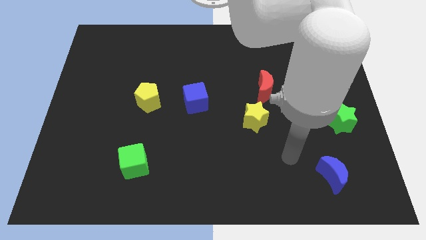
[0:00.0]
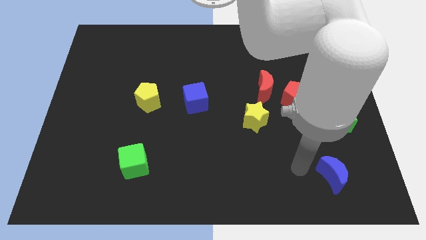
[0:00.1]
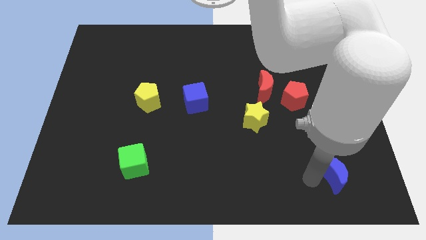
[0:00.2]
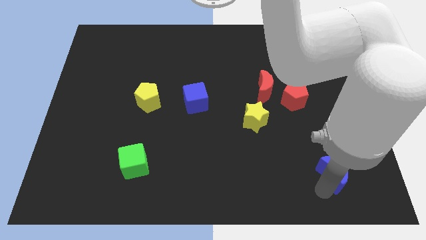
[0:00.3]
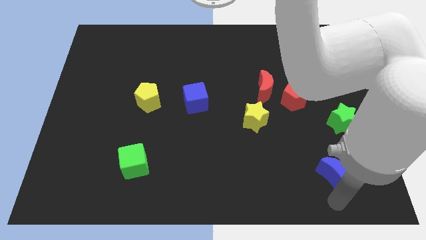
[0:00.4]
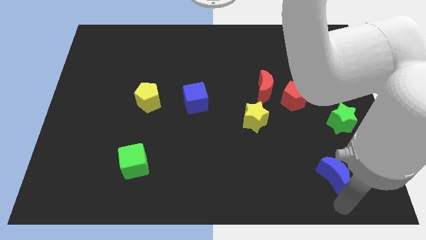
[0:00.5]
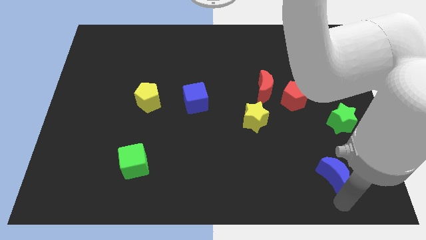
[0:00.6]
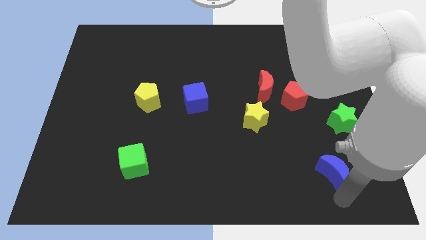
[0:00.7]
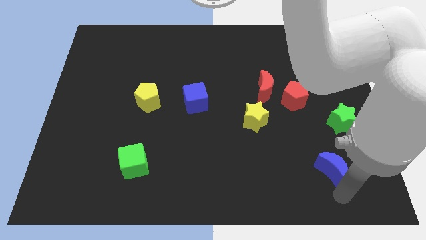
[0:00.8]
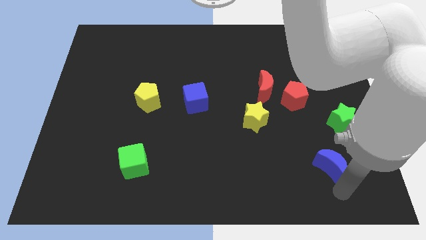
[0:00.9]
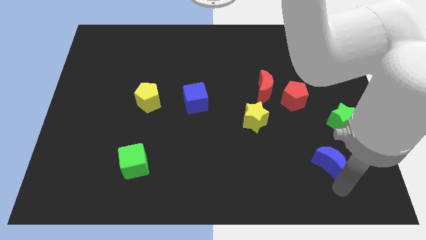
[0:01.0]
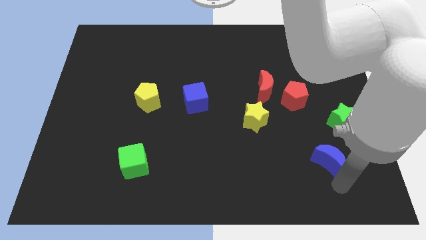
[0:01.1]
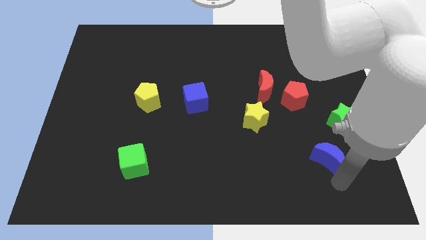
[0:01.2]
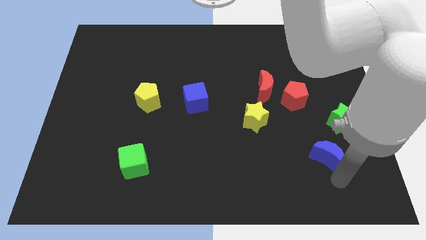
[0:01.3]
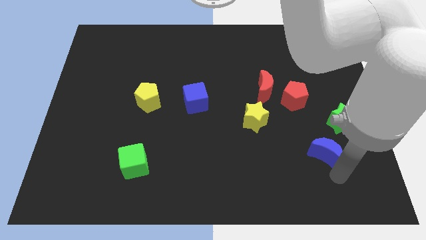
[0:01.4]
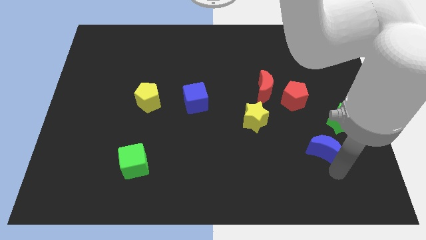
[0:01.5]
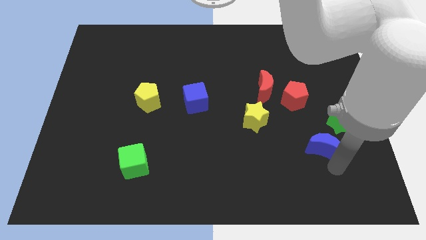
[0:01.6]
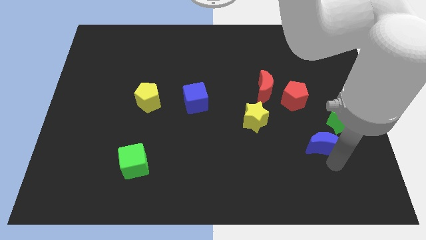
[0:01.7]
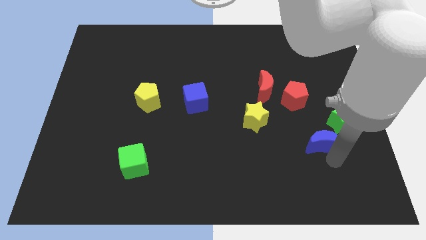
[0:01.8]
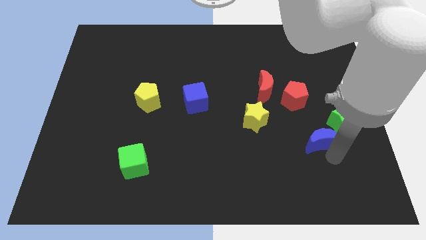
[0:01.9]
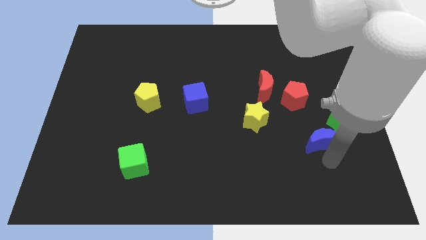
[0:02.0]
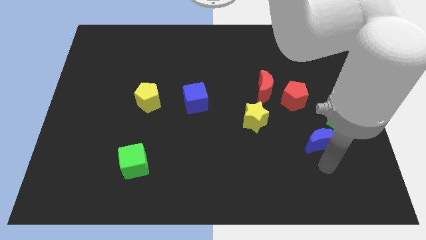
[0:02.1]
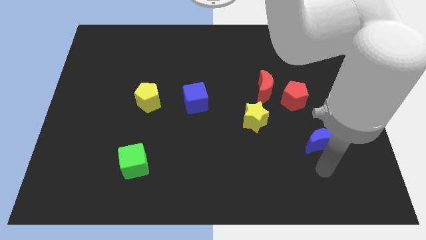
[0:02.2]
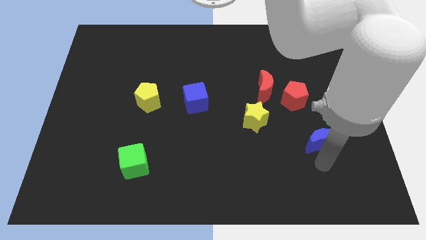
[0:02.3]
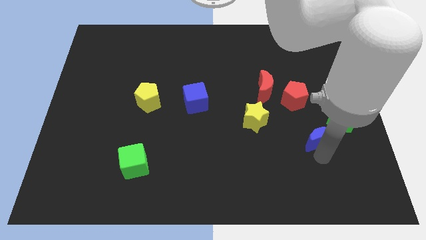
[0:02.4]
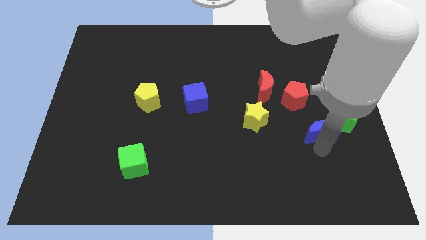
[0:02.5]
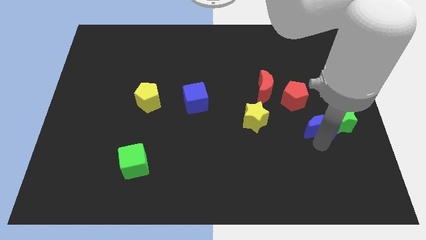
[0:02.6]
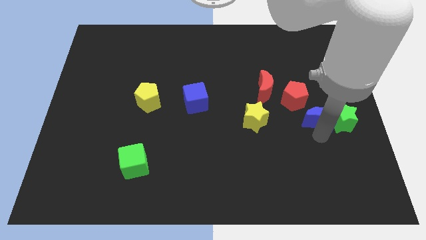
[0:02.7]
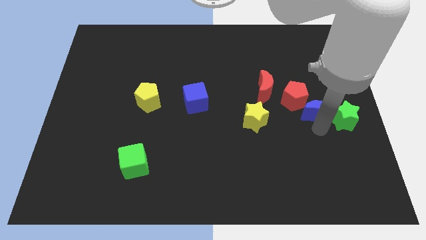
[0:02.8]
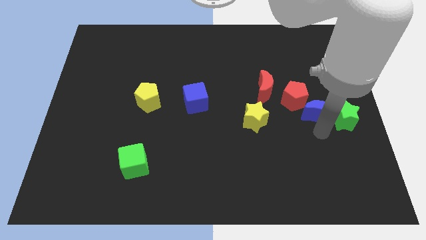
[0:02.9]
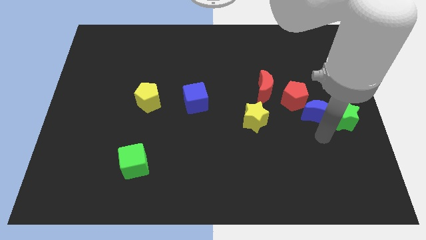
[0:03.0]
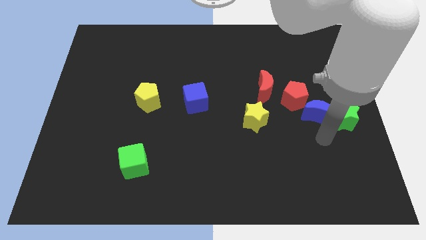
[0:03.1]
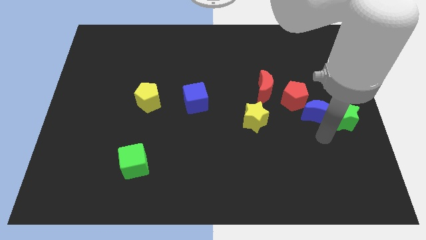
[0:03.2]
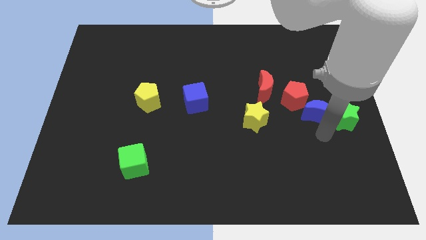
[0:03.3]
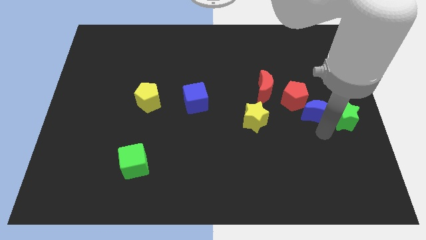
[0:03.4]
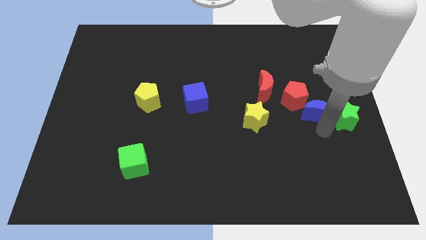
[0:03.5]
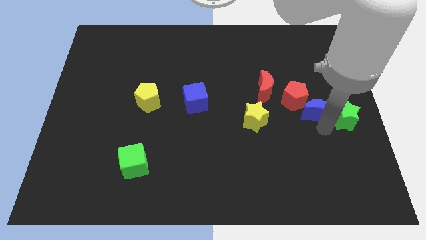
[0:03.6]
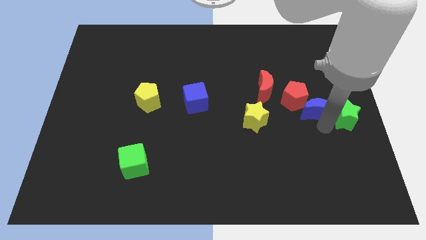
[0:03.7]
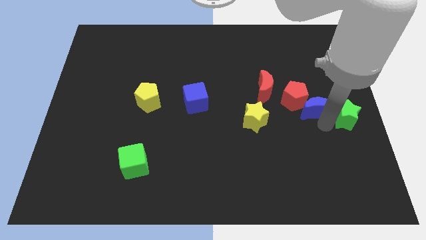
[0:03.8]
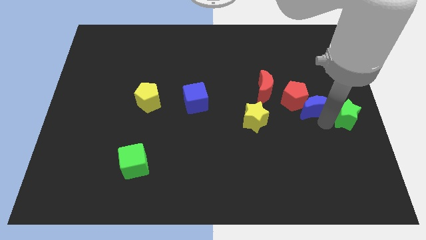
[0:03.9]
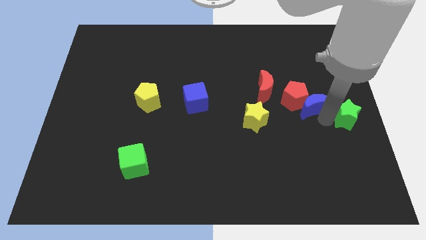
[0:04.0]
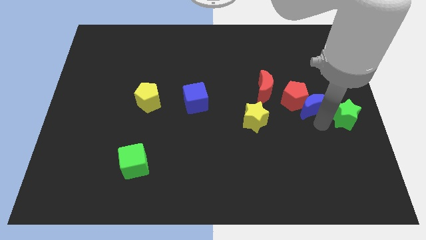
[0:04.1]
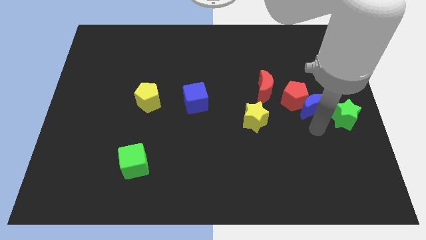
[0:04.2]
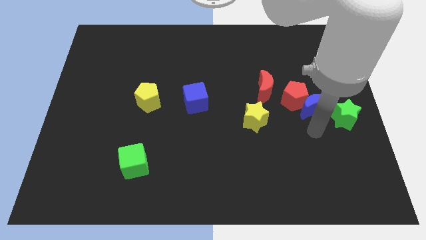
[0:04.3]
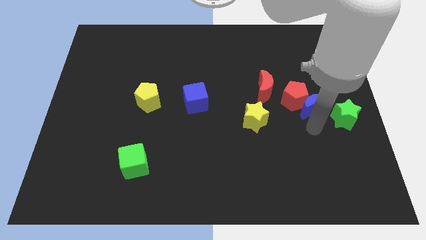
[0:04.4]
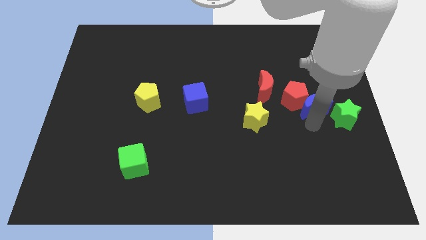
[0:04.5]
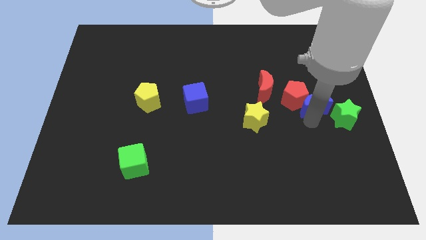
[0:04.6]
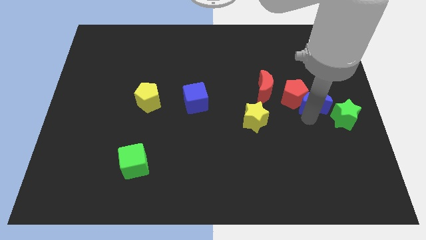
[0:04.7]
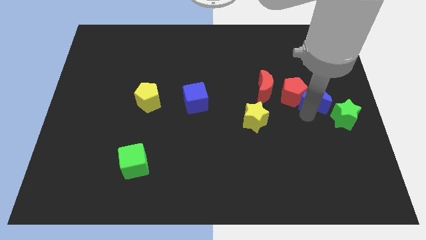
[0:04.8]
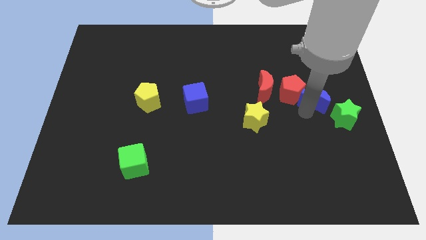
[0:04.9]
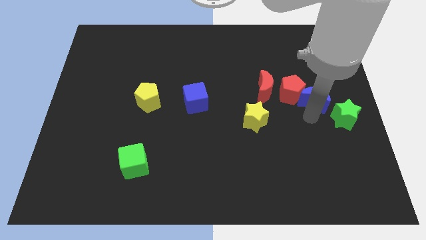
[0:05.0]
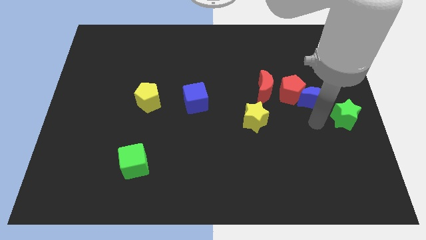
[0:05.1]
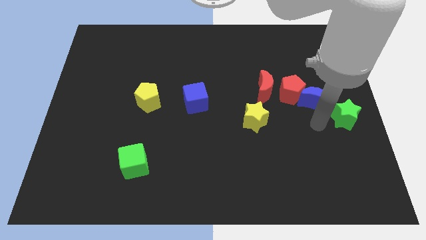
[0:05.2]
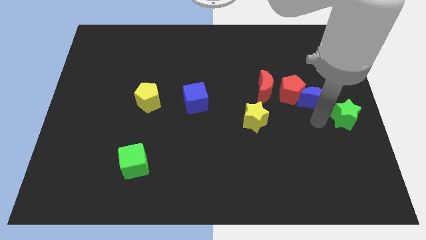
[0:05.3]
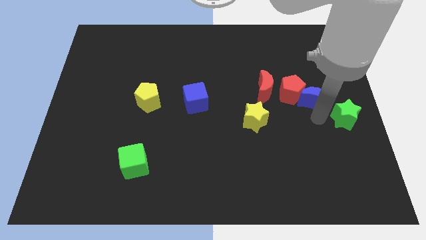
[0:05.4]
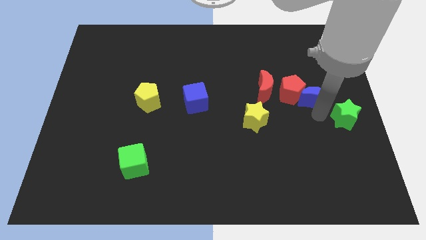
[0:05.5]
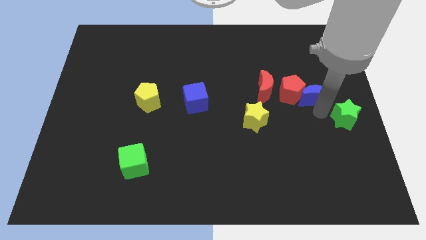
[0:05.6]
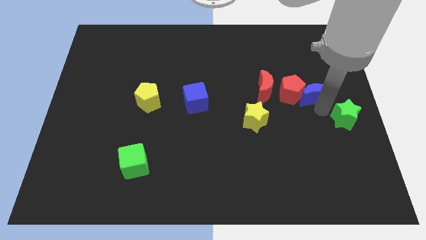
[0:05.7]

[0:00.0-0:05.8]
move the blue moon to the top right side of the red pentagon

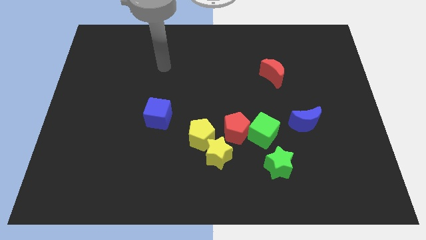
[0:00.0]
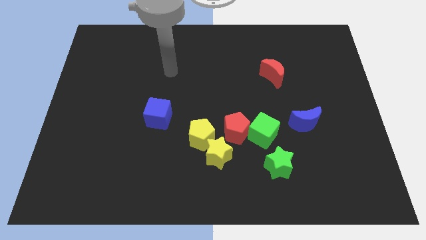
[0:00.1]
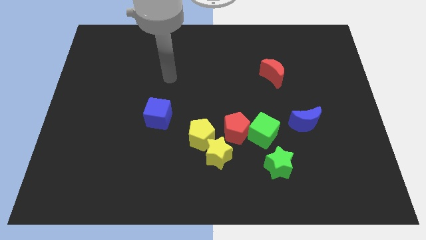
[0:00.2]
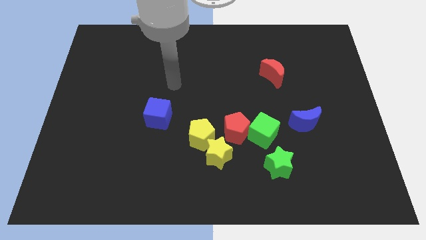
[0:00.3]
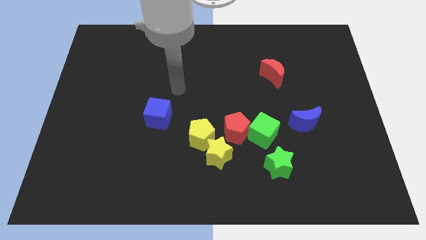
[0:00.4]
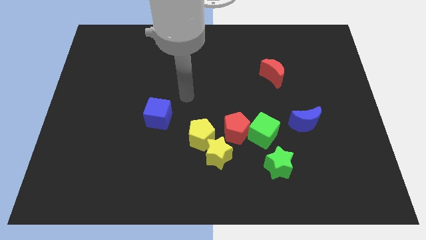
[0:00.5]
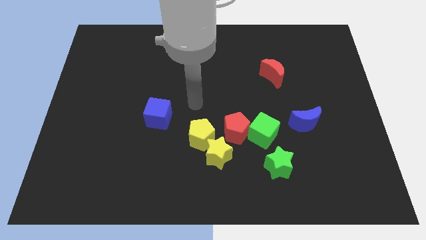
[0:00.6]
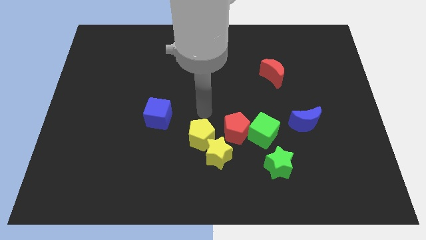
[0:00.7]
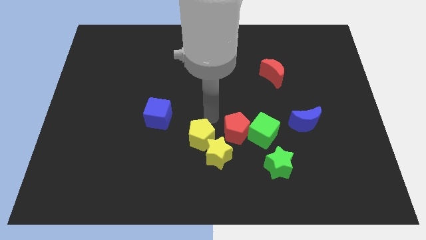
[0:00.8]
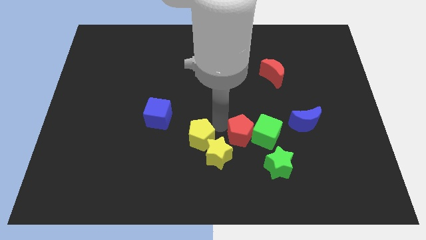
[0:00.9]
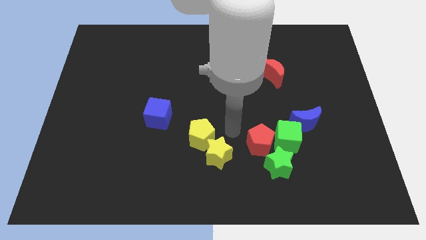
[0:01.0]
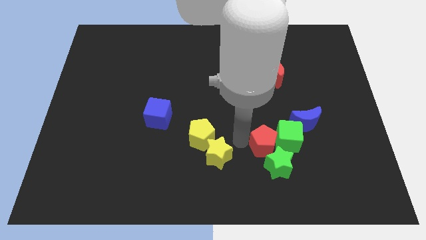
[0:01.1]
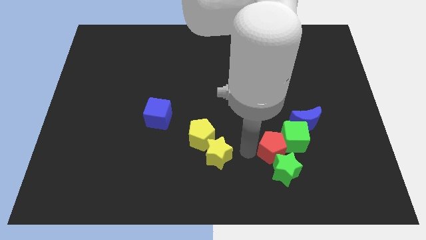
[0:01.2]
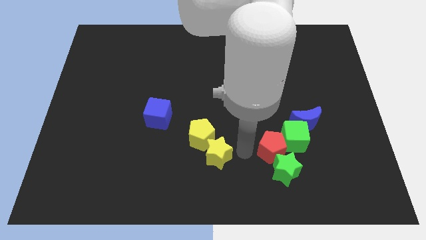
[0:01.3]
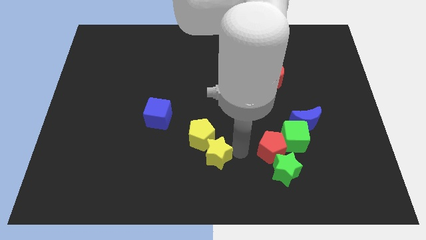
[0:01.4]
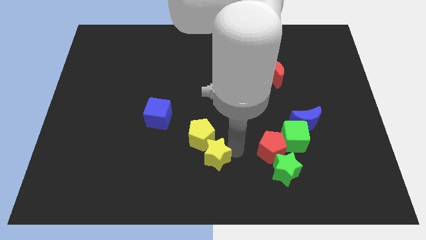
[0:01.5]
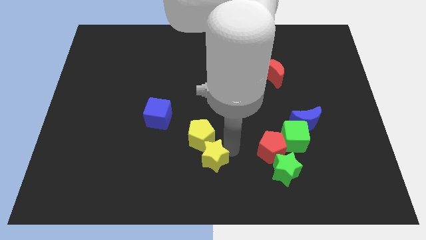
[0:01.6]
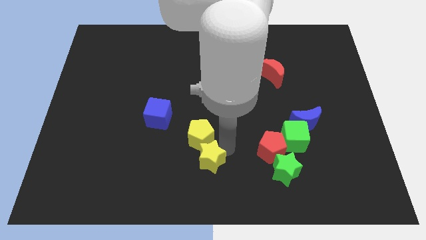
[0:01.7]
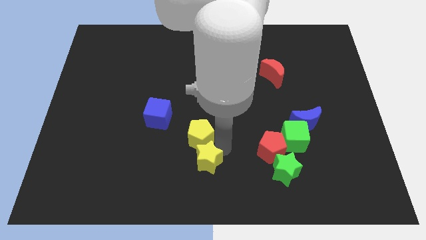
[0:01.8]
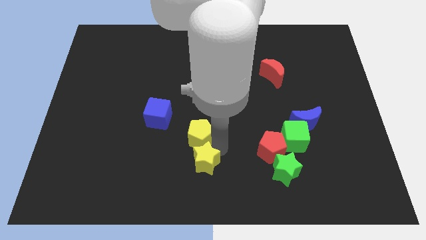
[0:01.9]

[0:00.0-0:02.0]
put the yellow star to the bottom left side of the yellow pentagon
